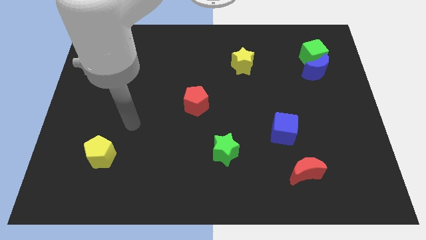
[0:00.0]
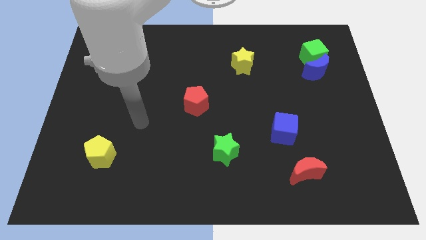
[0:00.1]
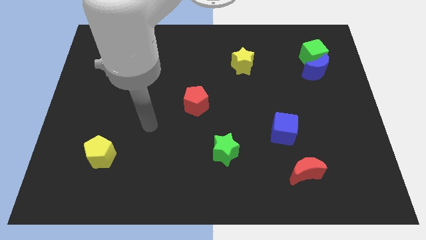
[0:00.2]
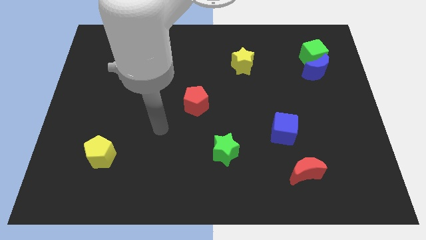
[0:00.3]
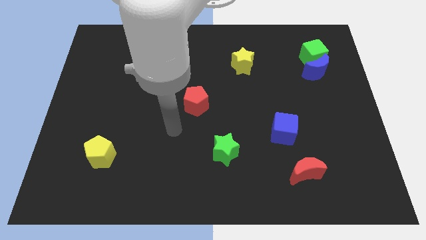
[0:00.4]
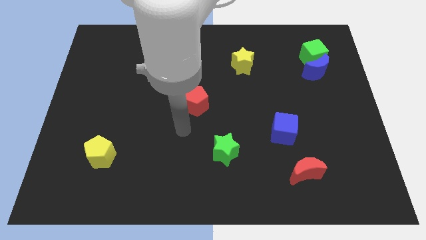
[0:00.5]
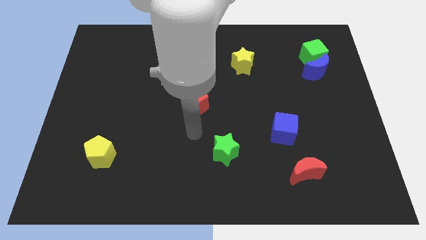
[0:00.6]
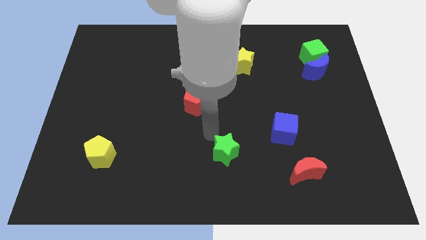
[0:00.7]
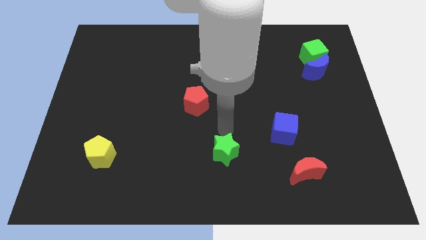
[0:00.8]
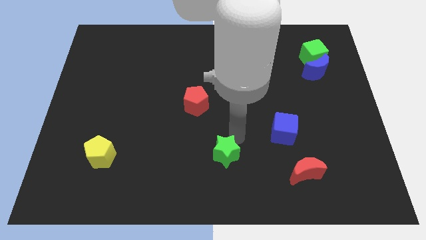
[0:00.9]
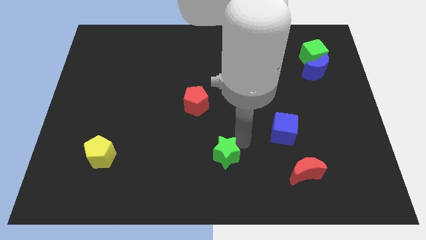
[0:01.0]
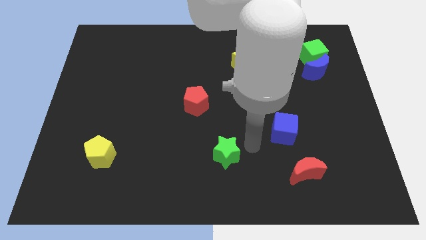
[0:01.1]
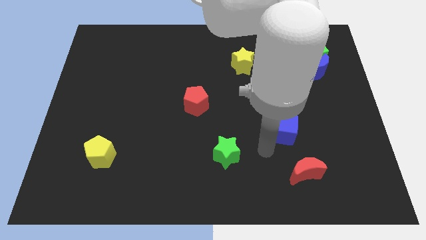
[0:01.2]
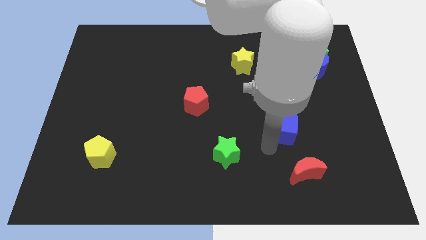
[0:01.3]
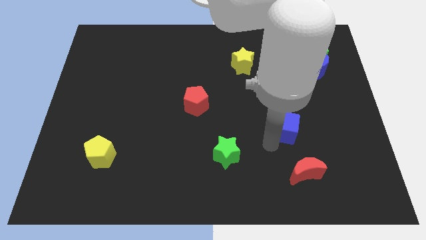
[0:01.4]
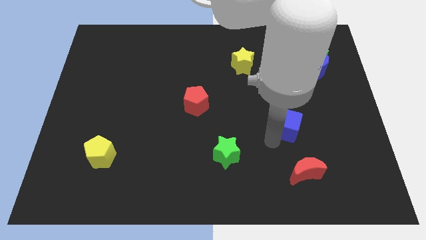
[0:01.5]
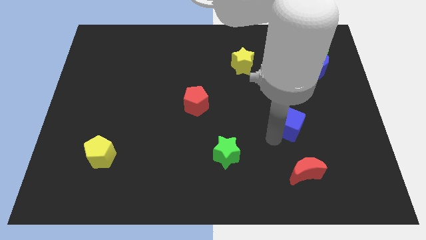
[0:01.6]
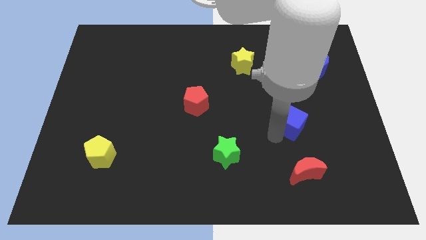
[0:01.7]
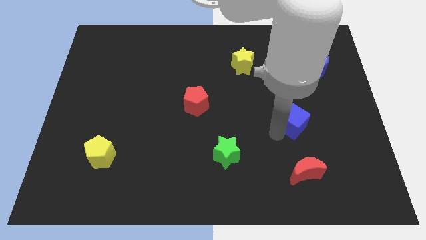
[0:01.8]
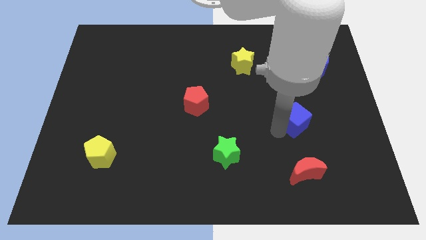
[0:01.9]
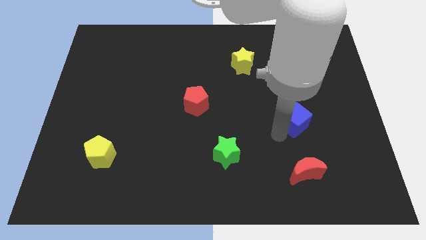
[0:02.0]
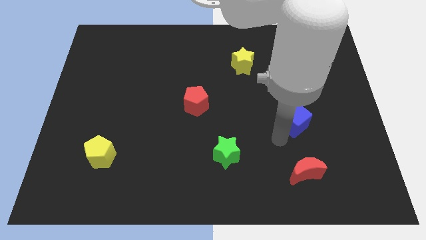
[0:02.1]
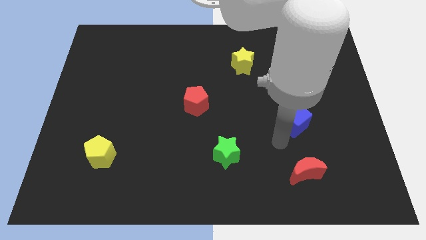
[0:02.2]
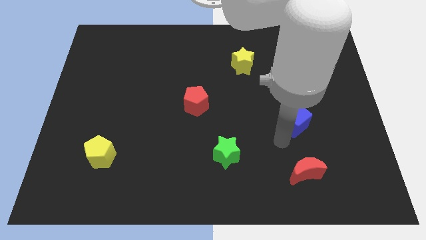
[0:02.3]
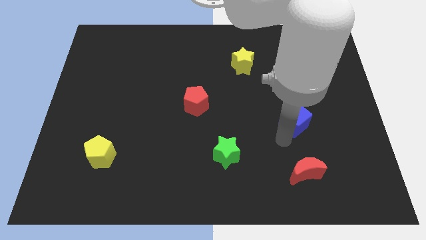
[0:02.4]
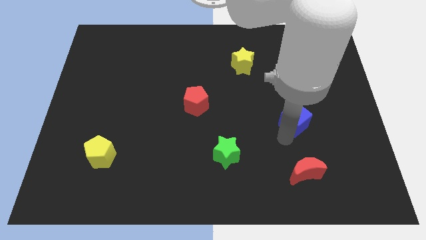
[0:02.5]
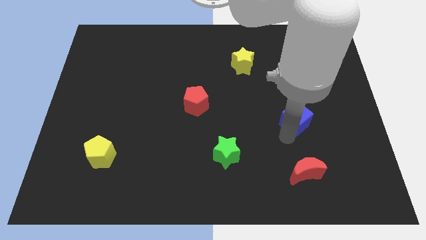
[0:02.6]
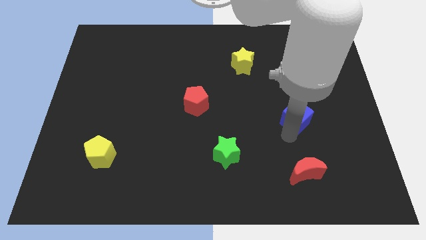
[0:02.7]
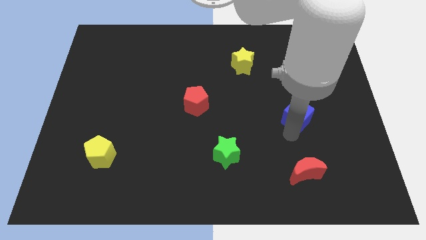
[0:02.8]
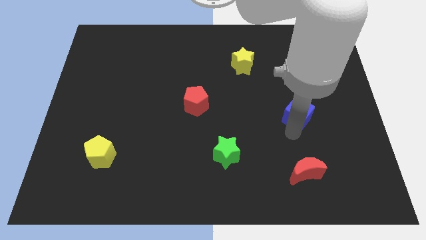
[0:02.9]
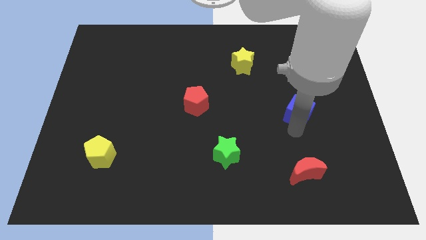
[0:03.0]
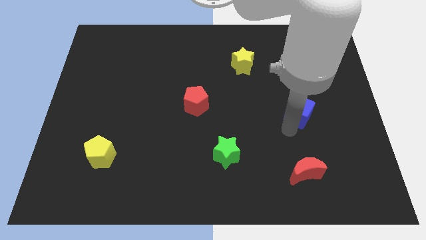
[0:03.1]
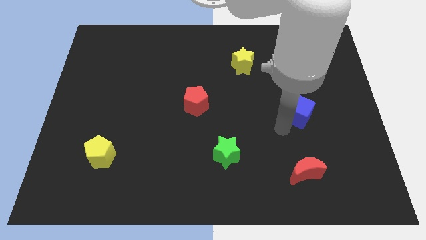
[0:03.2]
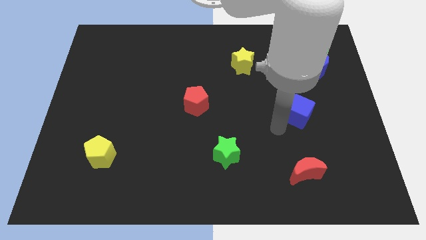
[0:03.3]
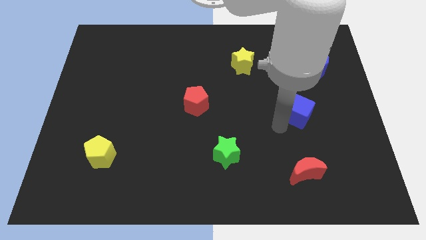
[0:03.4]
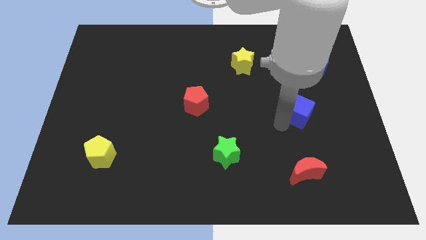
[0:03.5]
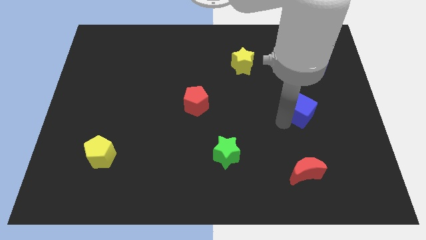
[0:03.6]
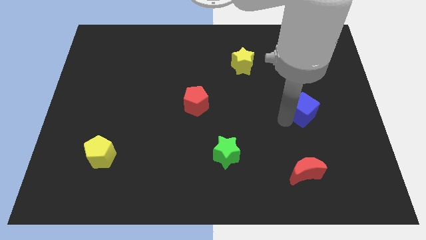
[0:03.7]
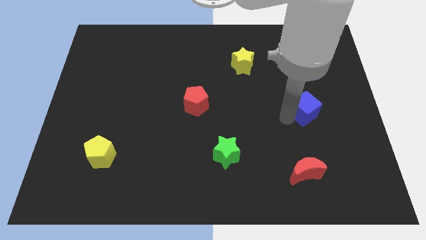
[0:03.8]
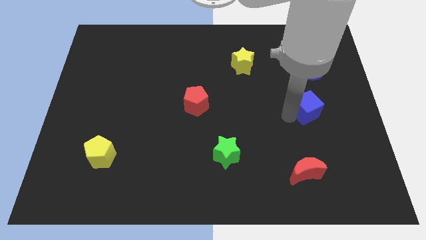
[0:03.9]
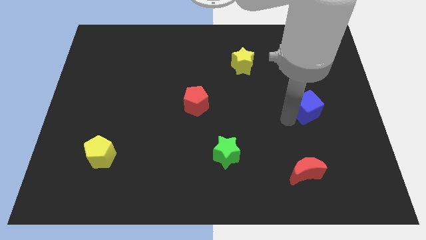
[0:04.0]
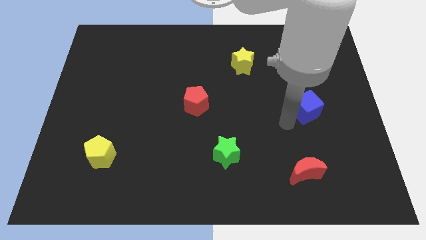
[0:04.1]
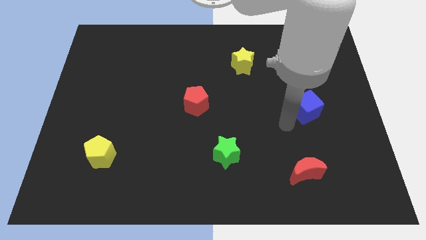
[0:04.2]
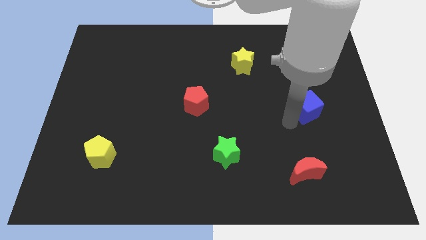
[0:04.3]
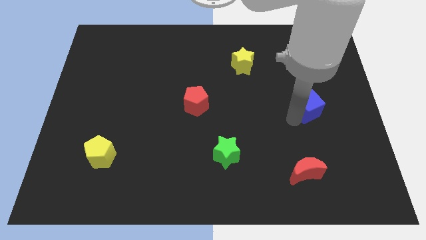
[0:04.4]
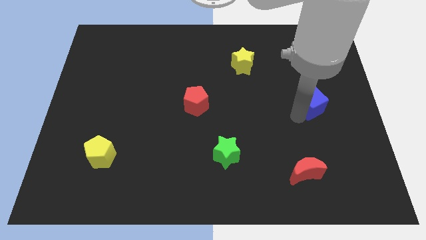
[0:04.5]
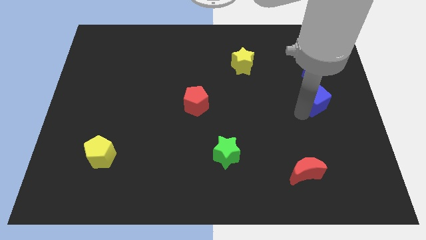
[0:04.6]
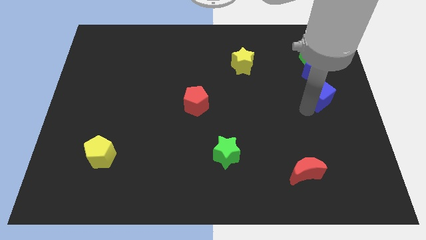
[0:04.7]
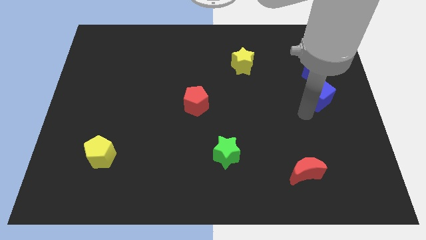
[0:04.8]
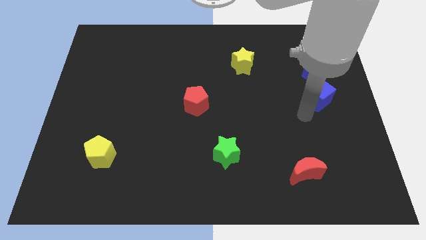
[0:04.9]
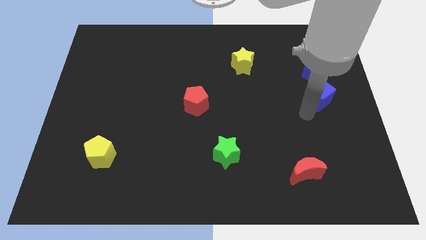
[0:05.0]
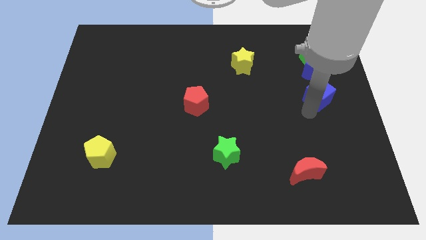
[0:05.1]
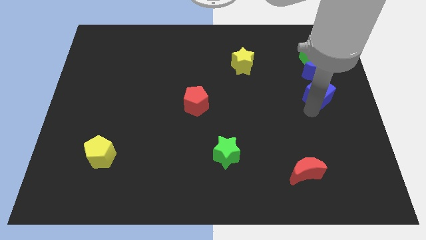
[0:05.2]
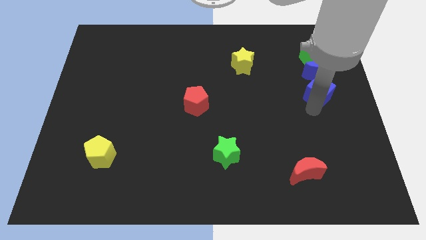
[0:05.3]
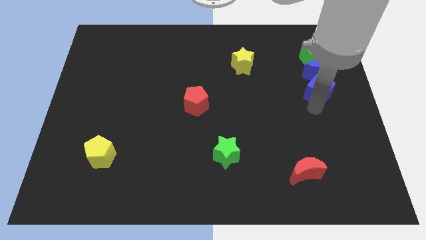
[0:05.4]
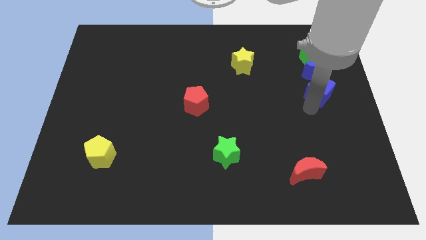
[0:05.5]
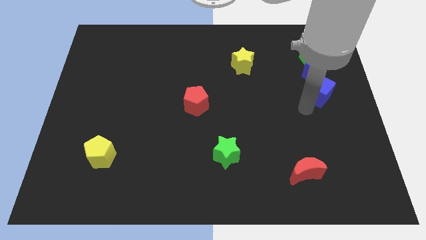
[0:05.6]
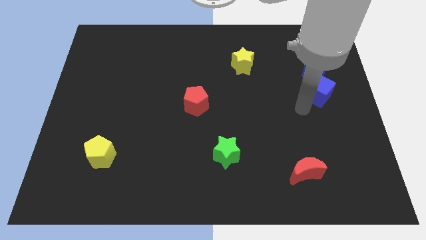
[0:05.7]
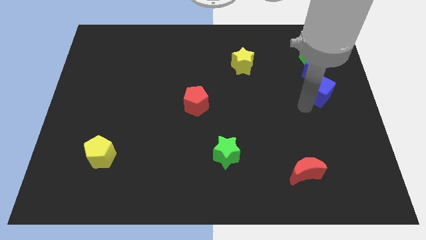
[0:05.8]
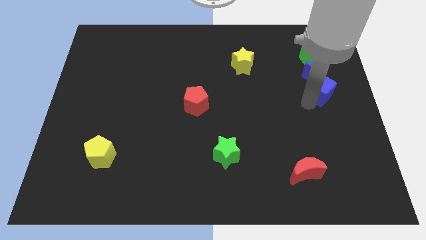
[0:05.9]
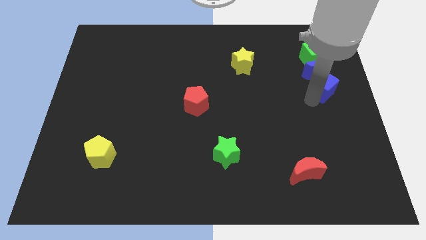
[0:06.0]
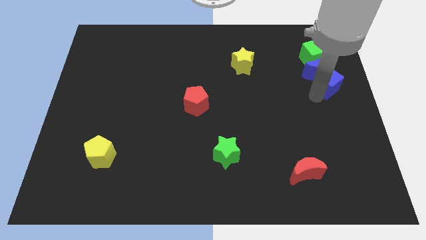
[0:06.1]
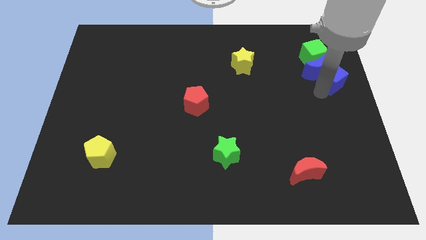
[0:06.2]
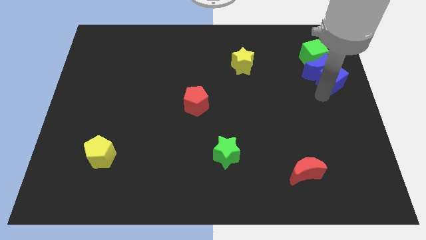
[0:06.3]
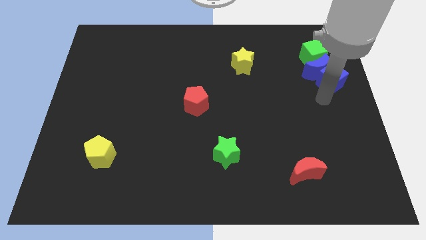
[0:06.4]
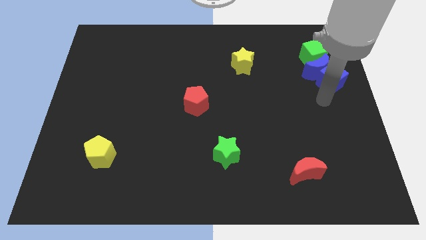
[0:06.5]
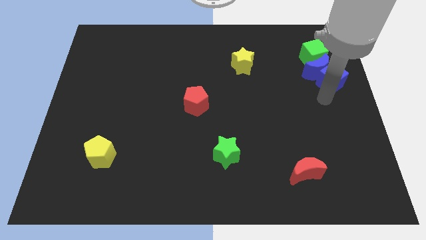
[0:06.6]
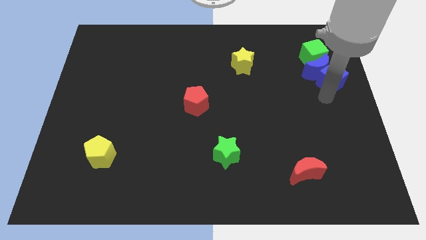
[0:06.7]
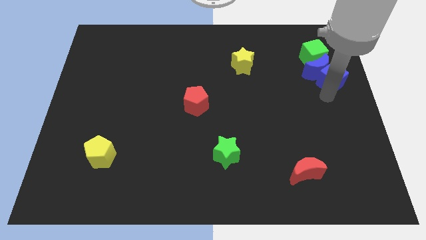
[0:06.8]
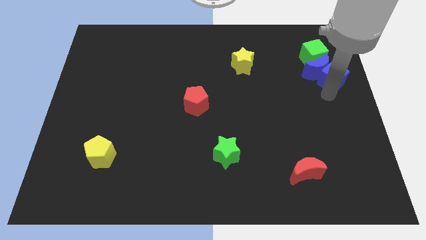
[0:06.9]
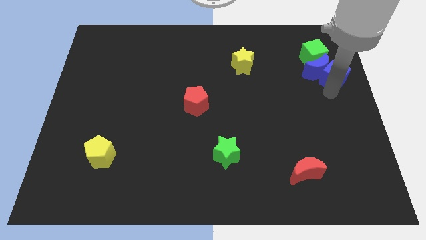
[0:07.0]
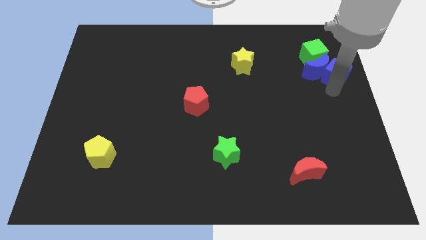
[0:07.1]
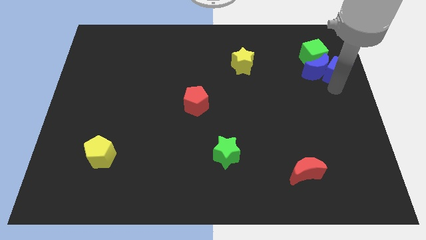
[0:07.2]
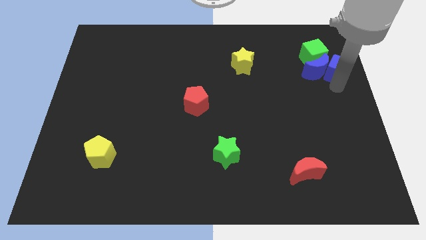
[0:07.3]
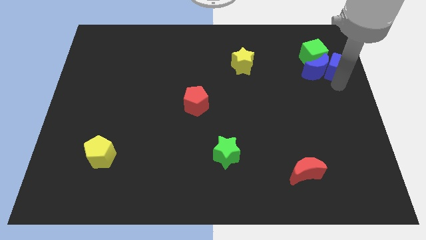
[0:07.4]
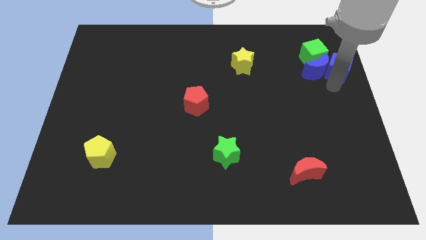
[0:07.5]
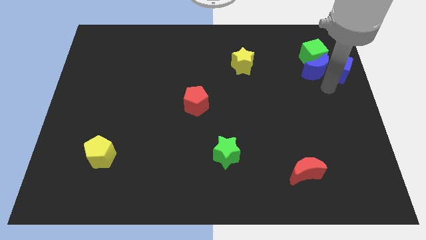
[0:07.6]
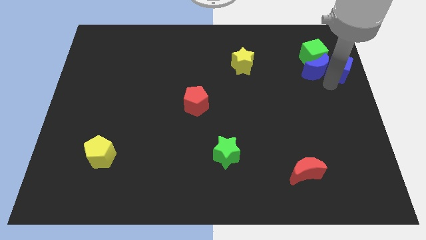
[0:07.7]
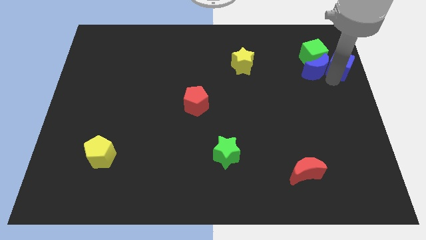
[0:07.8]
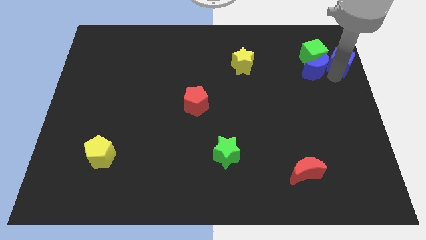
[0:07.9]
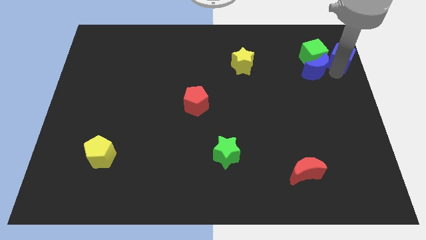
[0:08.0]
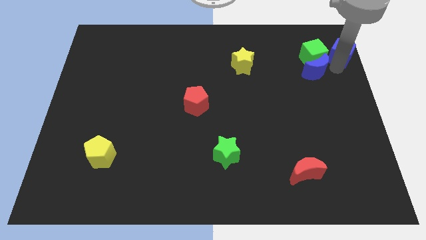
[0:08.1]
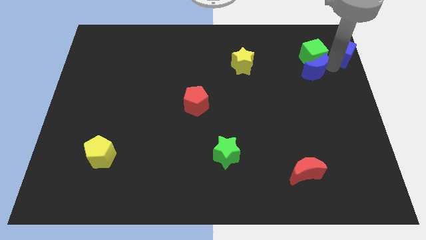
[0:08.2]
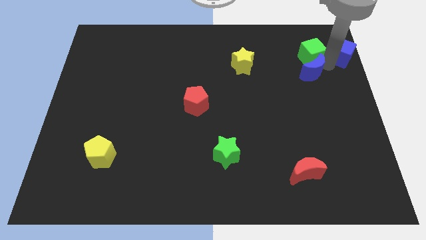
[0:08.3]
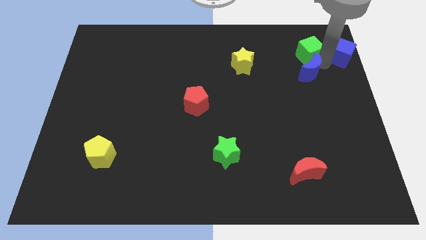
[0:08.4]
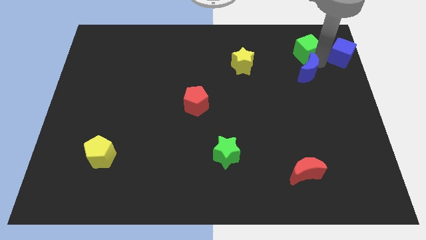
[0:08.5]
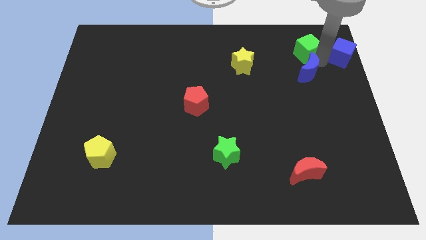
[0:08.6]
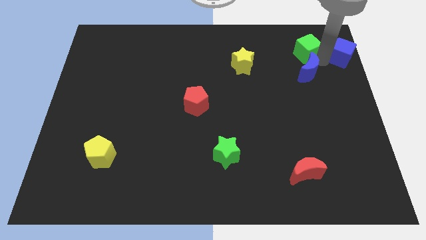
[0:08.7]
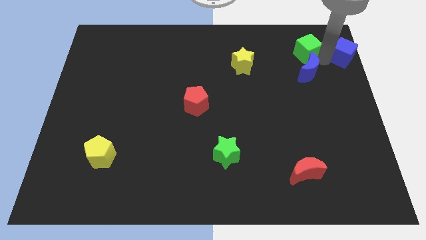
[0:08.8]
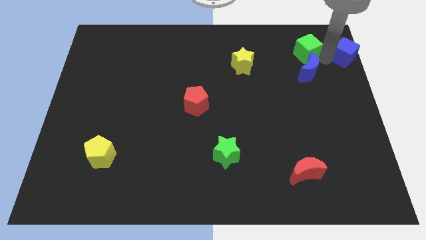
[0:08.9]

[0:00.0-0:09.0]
slide the blue cube to the top right
